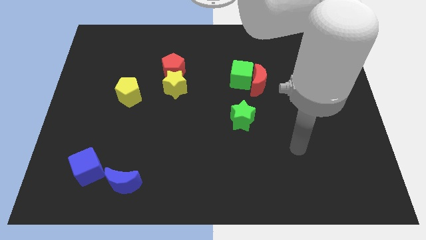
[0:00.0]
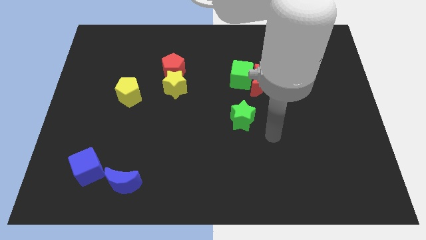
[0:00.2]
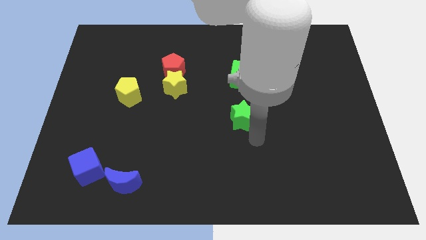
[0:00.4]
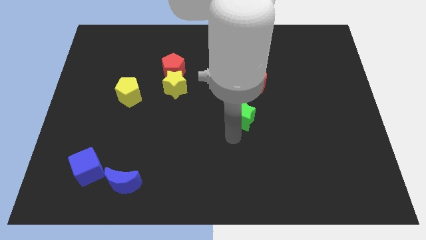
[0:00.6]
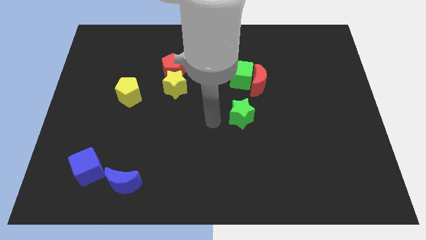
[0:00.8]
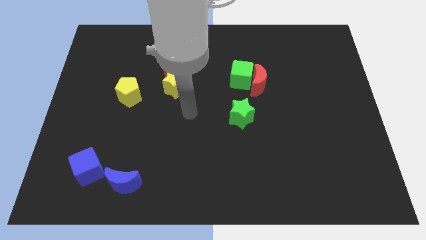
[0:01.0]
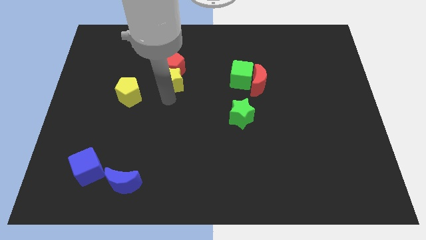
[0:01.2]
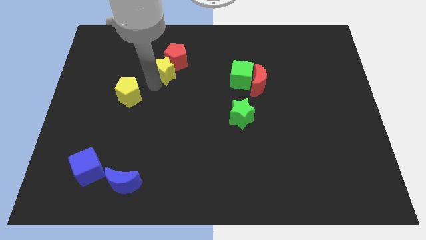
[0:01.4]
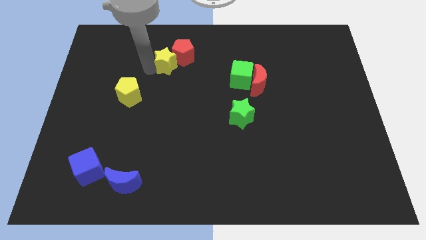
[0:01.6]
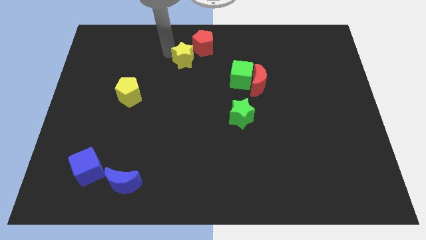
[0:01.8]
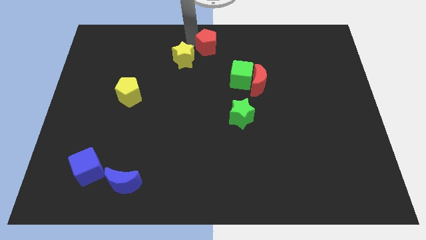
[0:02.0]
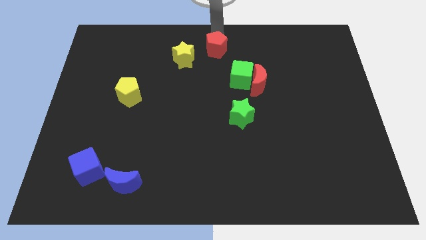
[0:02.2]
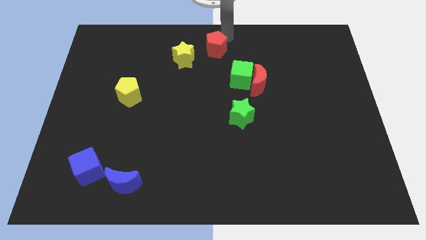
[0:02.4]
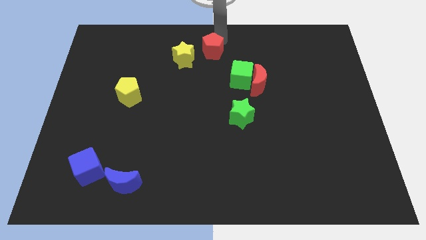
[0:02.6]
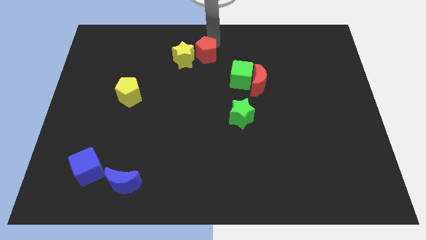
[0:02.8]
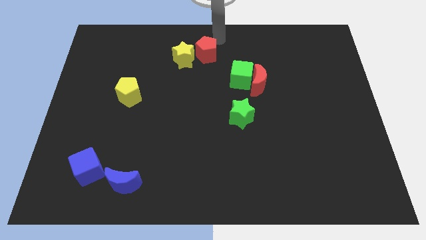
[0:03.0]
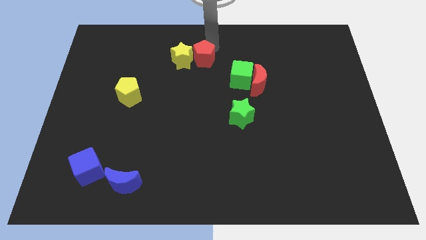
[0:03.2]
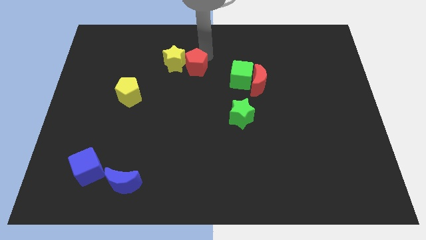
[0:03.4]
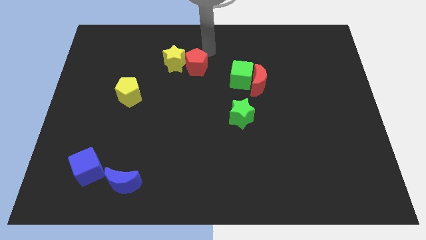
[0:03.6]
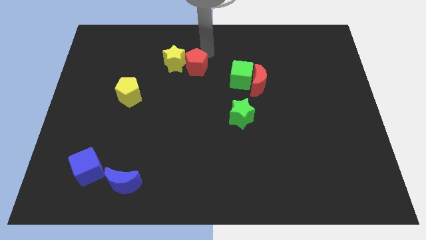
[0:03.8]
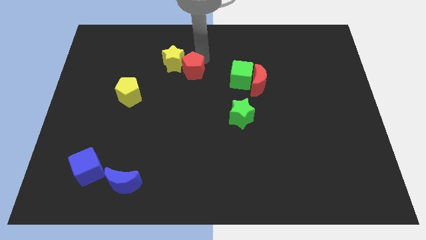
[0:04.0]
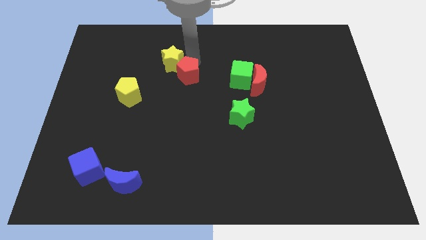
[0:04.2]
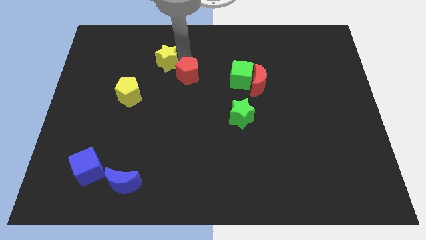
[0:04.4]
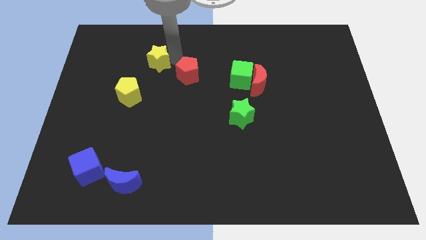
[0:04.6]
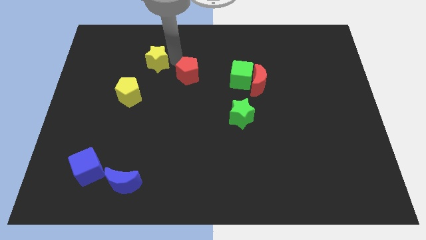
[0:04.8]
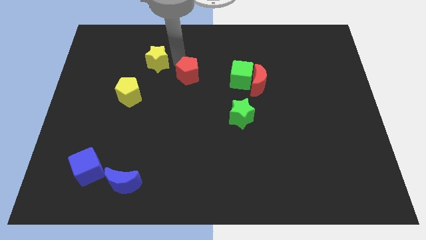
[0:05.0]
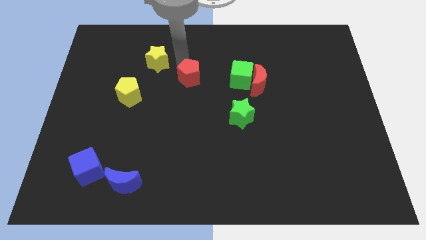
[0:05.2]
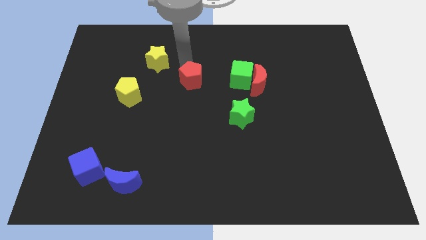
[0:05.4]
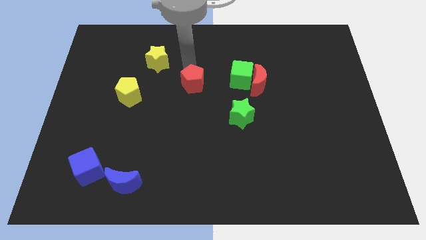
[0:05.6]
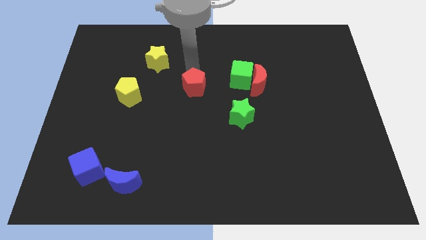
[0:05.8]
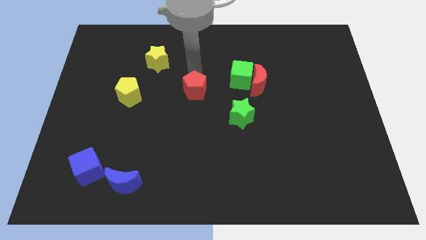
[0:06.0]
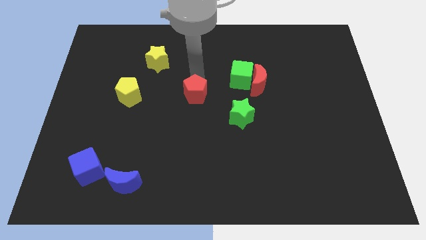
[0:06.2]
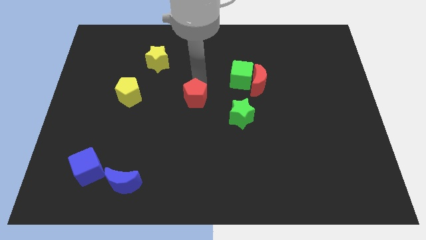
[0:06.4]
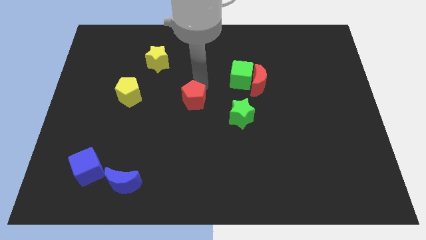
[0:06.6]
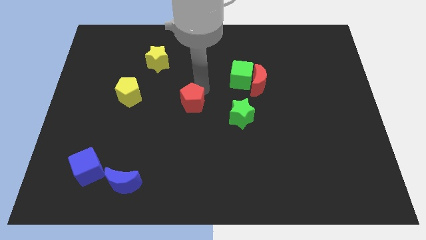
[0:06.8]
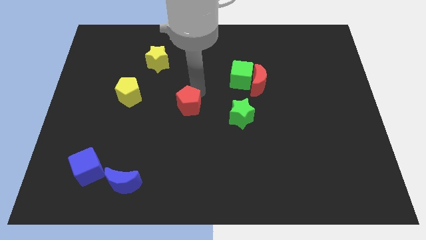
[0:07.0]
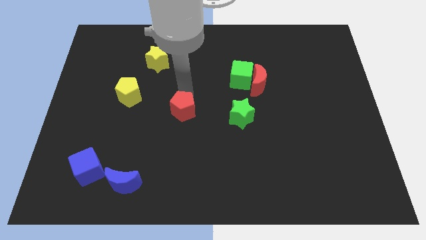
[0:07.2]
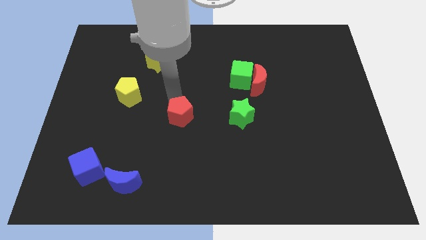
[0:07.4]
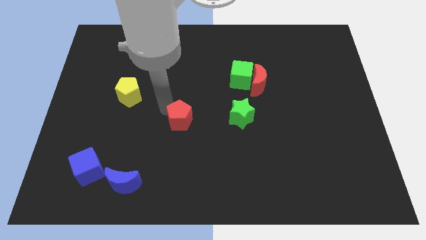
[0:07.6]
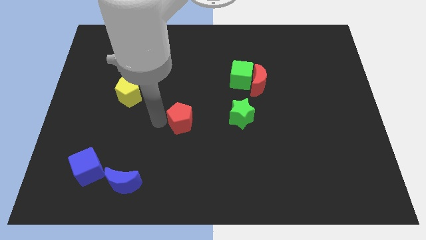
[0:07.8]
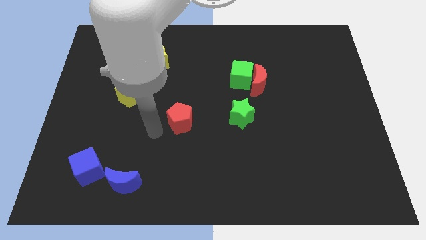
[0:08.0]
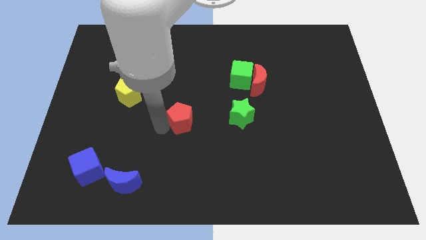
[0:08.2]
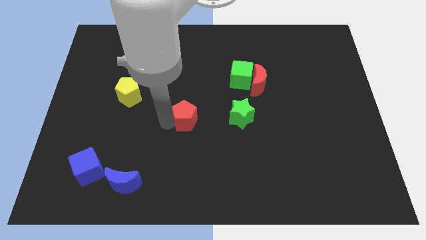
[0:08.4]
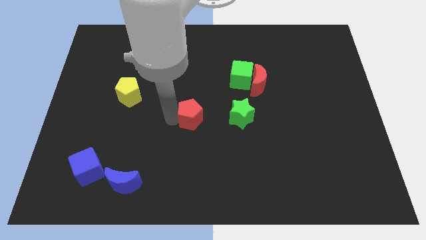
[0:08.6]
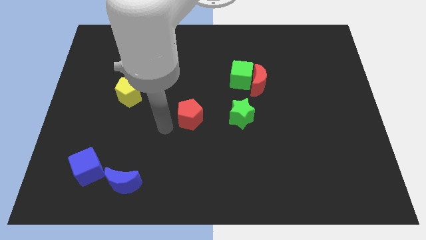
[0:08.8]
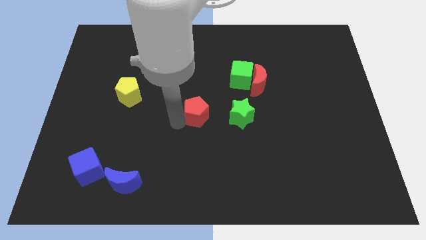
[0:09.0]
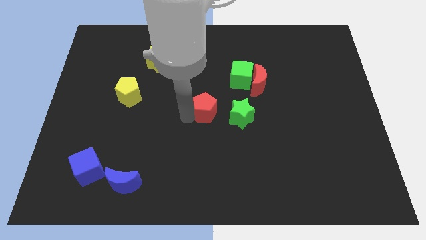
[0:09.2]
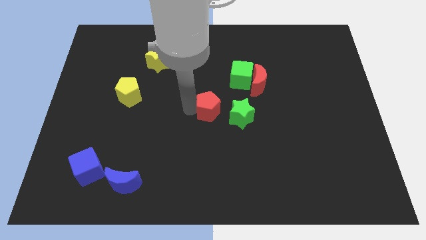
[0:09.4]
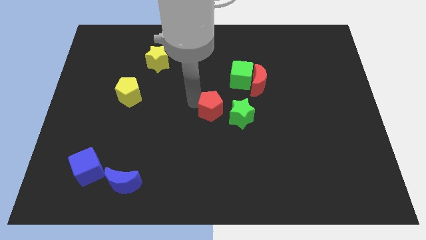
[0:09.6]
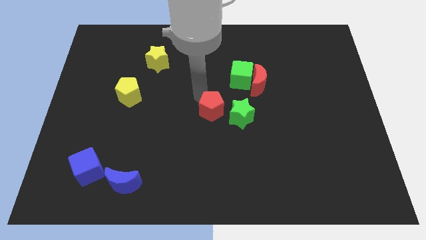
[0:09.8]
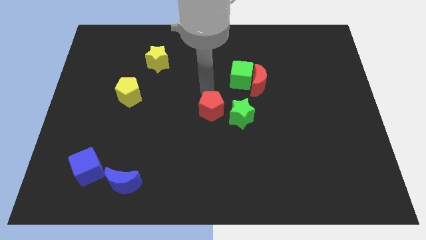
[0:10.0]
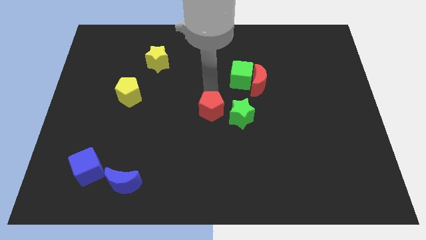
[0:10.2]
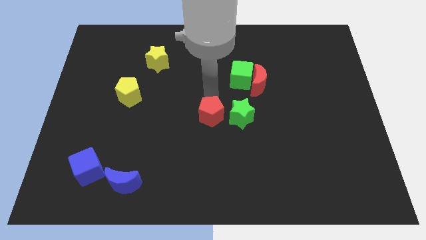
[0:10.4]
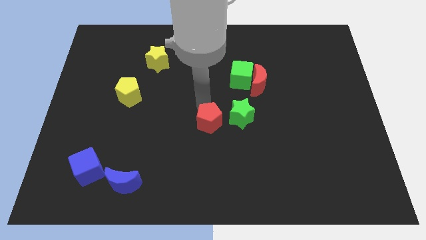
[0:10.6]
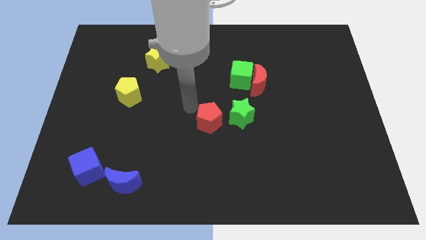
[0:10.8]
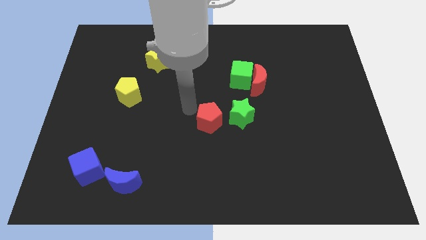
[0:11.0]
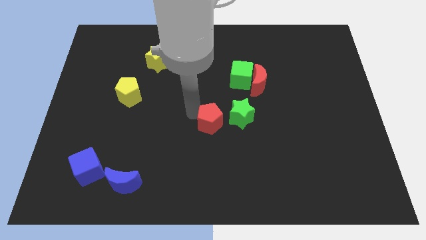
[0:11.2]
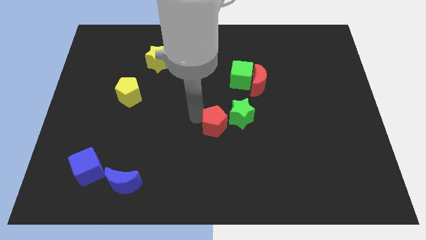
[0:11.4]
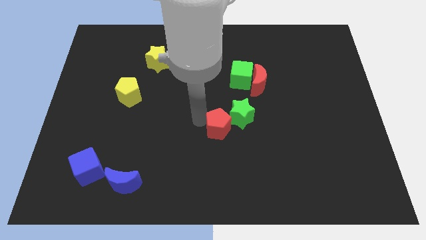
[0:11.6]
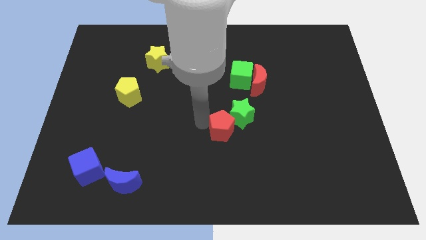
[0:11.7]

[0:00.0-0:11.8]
push the red pentagon downwards and right

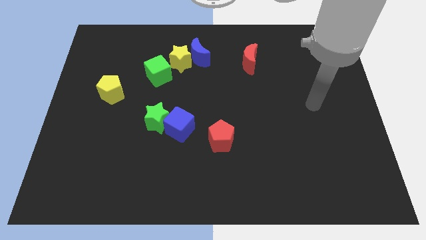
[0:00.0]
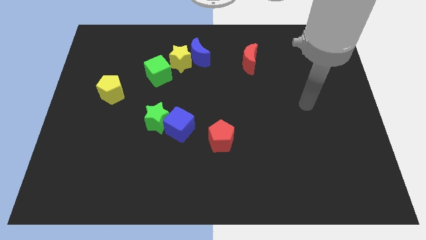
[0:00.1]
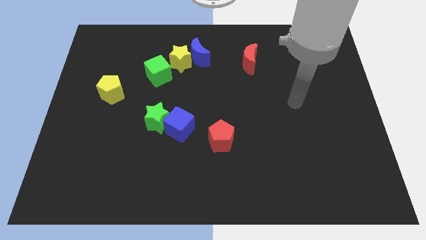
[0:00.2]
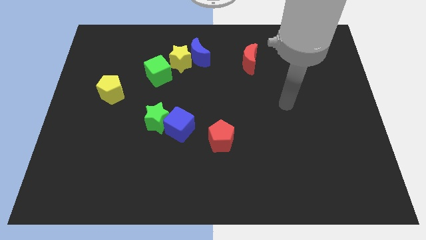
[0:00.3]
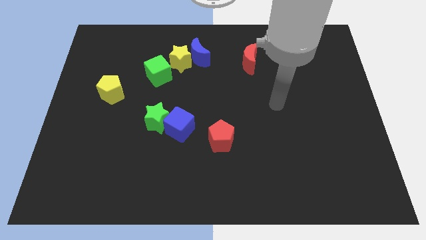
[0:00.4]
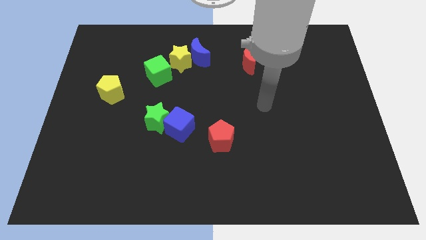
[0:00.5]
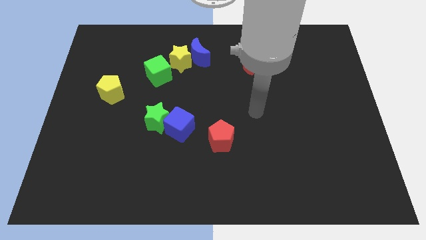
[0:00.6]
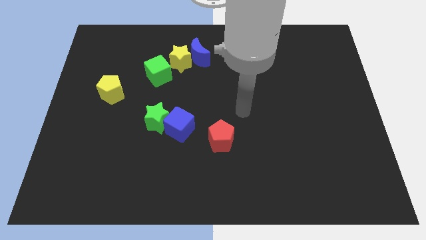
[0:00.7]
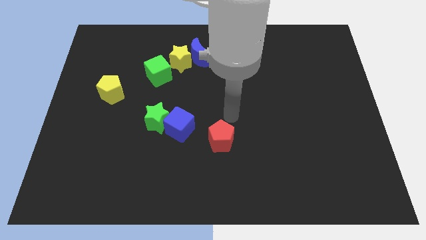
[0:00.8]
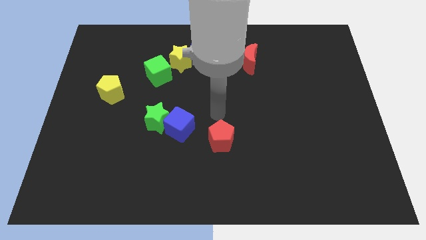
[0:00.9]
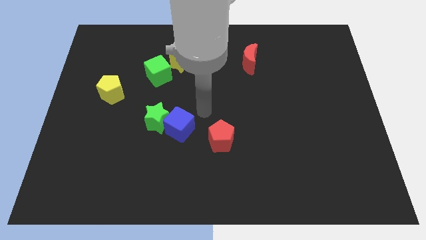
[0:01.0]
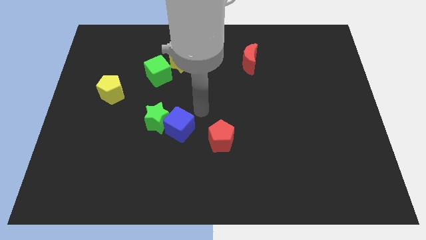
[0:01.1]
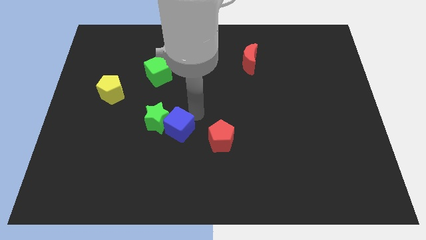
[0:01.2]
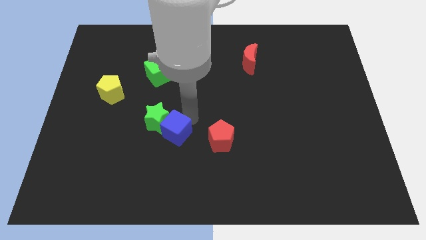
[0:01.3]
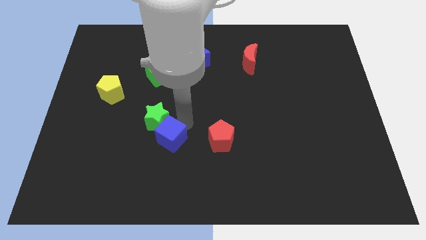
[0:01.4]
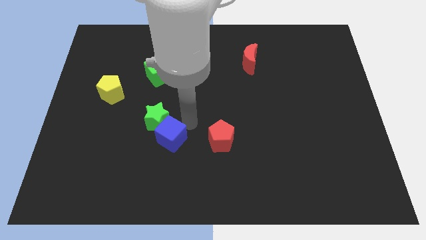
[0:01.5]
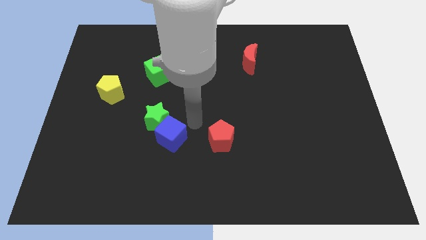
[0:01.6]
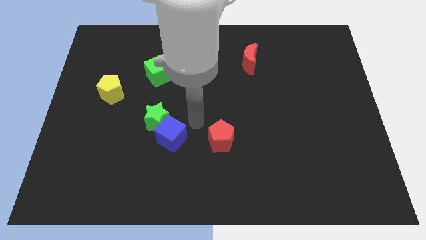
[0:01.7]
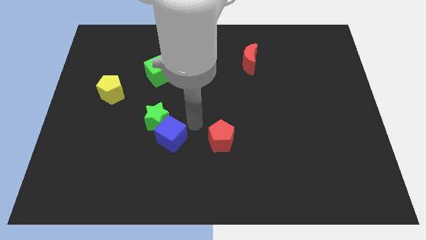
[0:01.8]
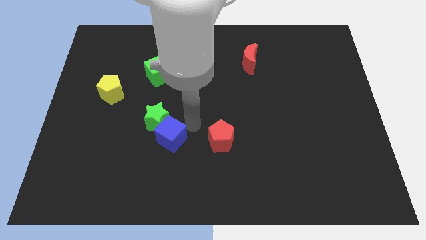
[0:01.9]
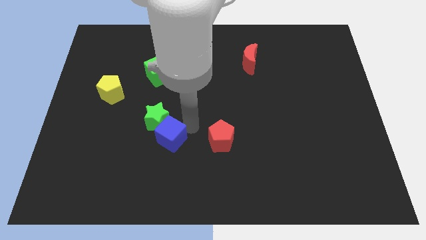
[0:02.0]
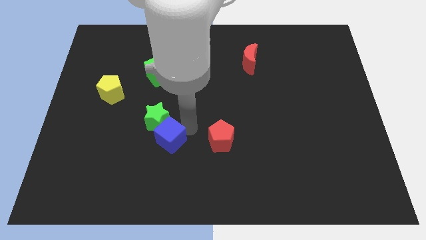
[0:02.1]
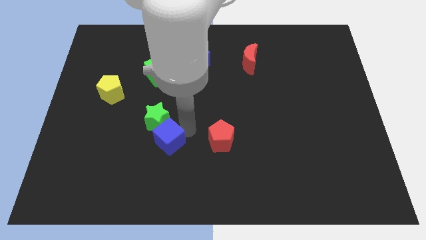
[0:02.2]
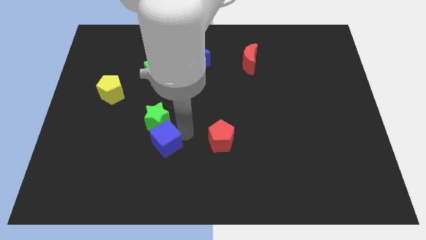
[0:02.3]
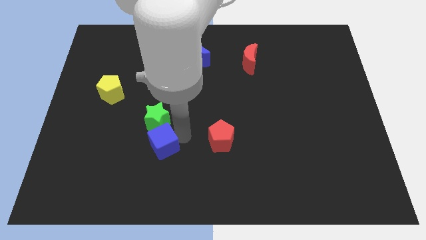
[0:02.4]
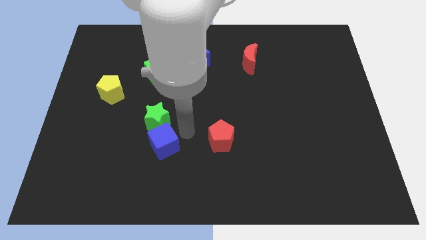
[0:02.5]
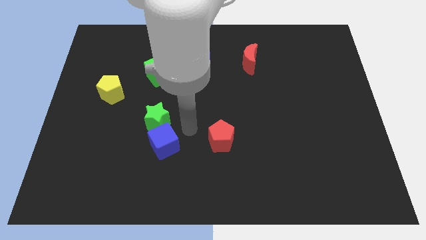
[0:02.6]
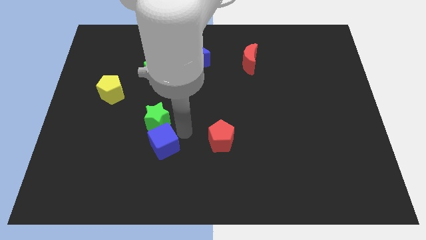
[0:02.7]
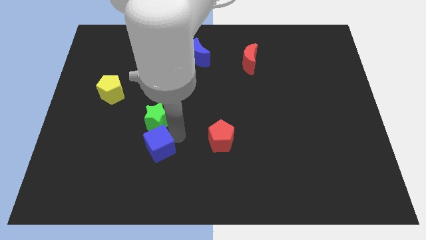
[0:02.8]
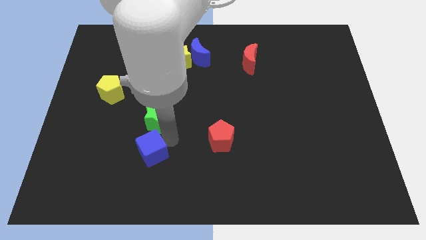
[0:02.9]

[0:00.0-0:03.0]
push the blue cube slightly diagonally downwards and left
